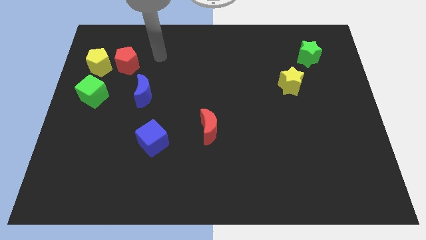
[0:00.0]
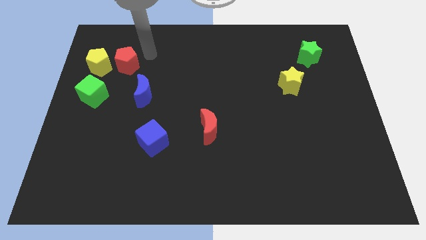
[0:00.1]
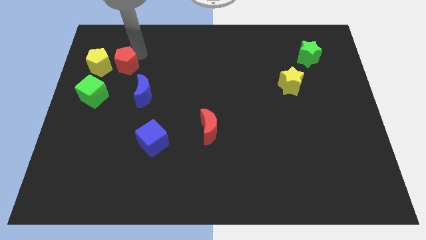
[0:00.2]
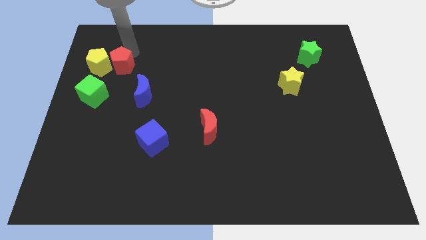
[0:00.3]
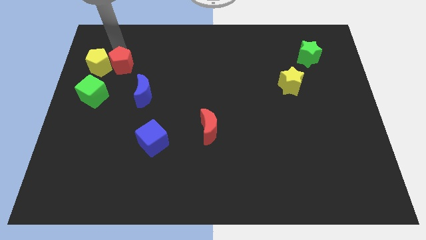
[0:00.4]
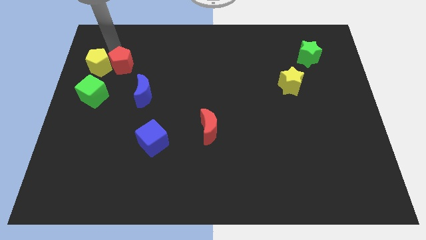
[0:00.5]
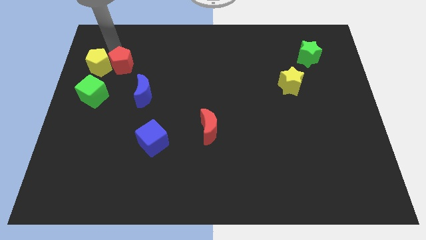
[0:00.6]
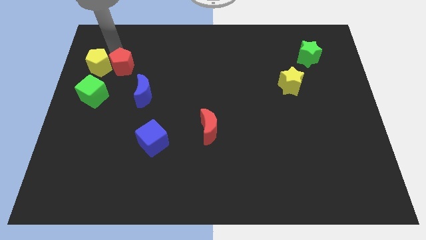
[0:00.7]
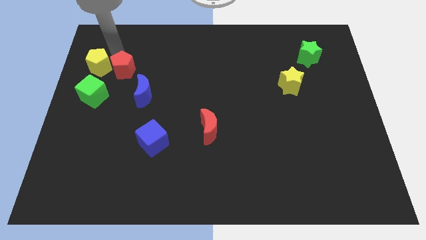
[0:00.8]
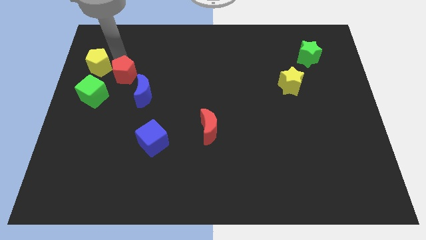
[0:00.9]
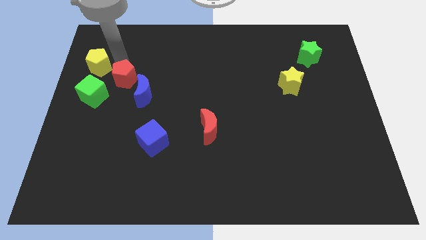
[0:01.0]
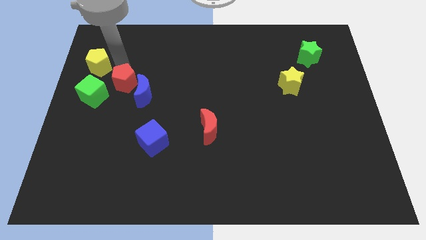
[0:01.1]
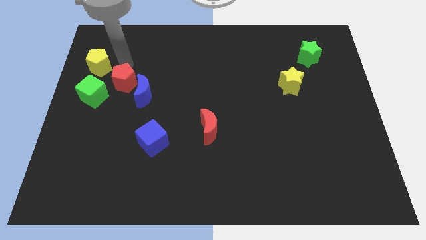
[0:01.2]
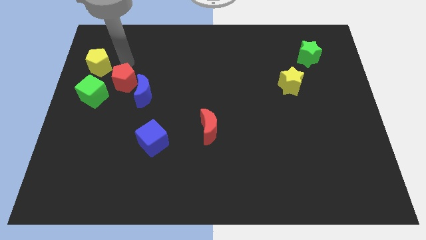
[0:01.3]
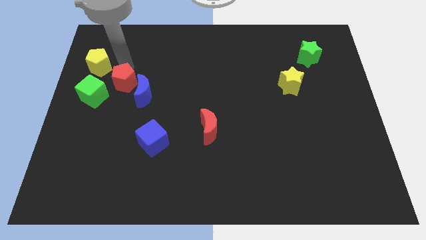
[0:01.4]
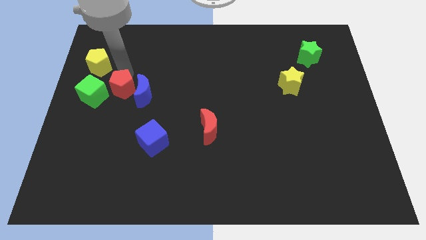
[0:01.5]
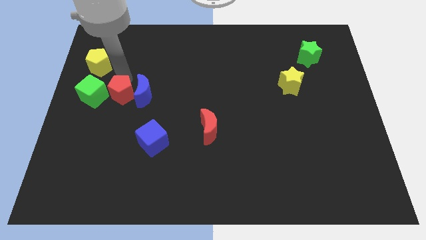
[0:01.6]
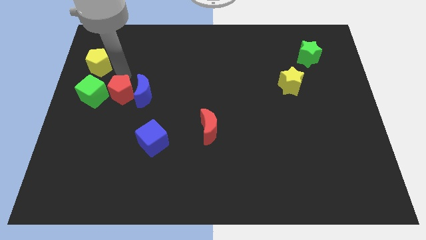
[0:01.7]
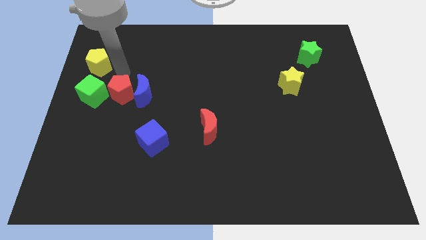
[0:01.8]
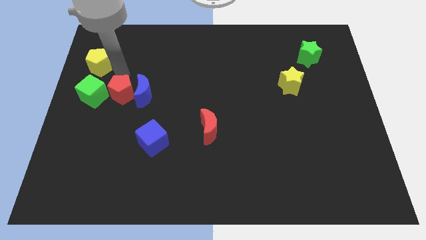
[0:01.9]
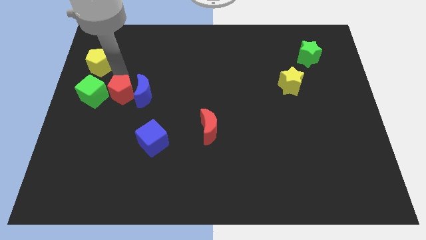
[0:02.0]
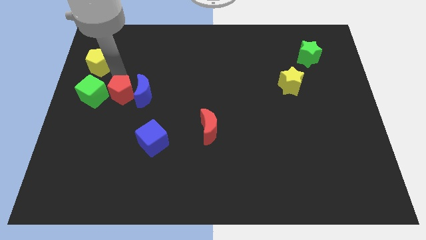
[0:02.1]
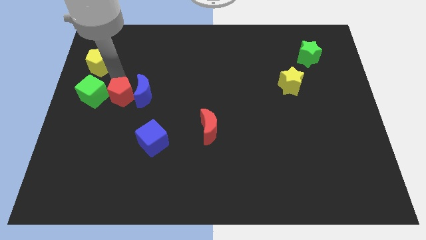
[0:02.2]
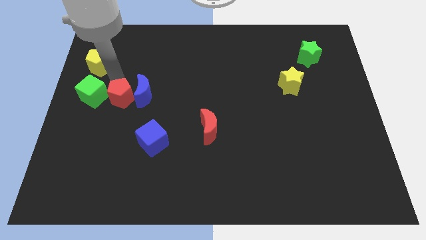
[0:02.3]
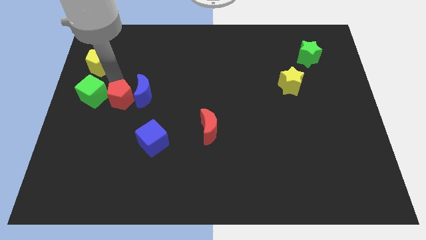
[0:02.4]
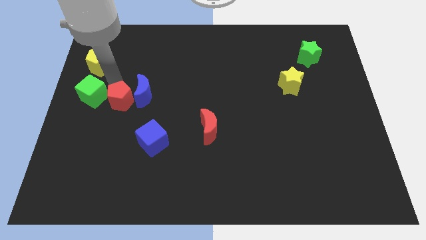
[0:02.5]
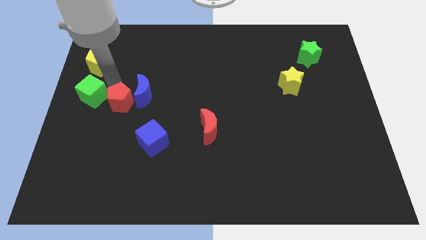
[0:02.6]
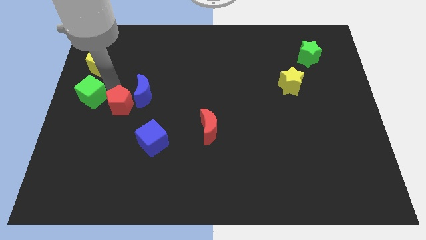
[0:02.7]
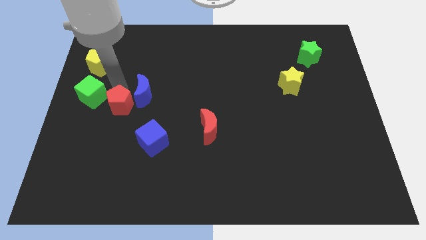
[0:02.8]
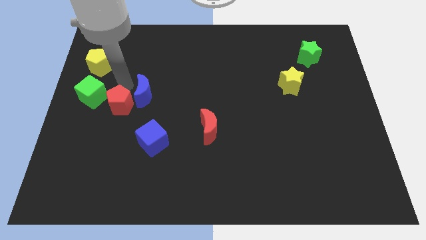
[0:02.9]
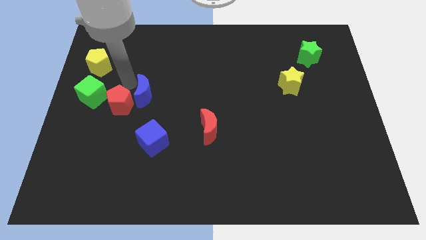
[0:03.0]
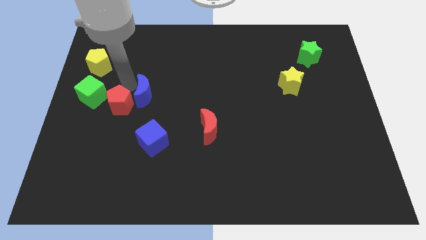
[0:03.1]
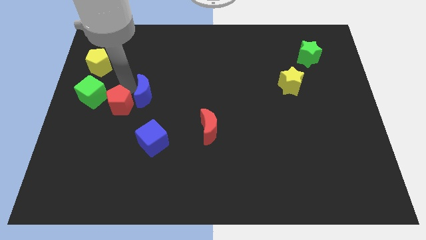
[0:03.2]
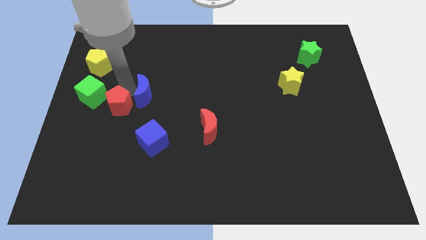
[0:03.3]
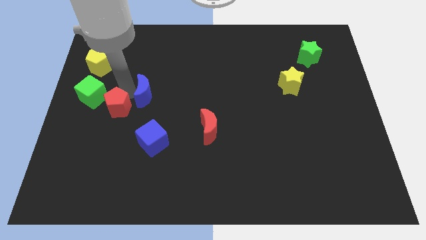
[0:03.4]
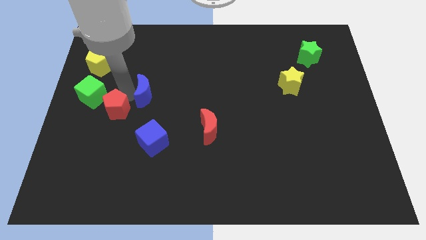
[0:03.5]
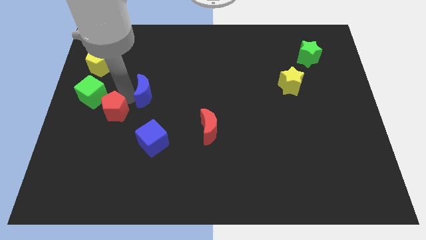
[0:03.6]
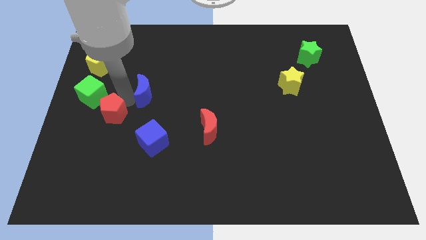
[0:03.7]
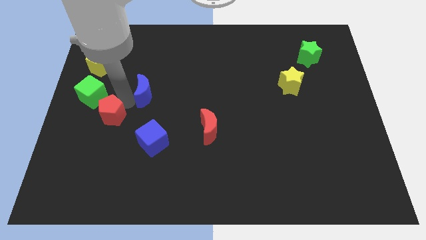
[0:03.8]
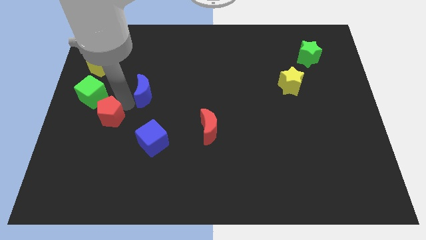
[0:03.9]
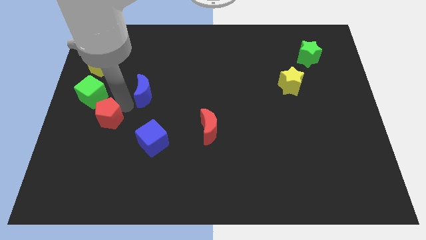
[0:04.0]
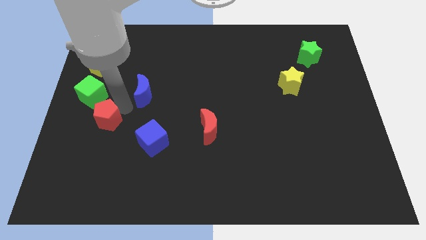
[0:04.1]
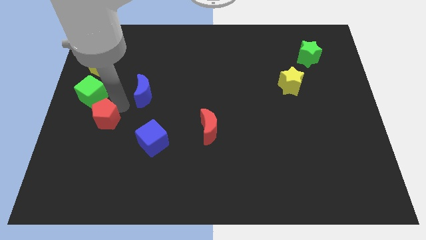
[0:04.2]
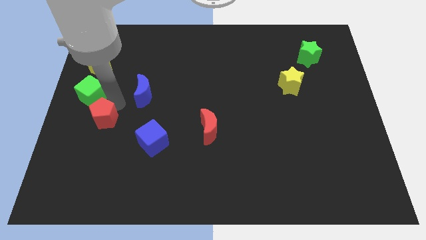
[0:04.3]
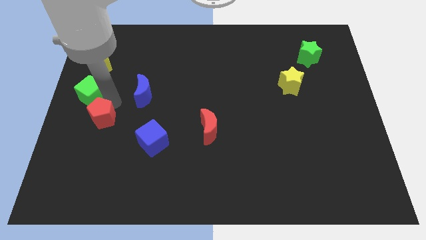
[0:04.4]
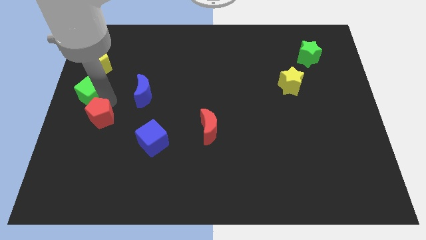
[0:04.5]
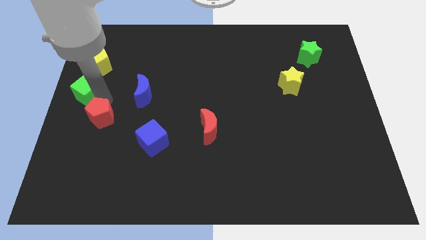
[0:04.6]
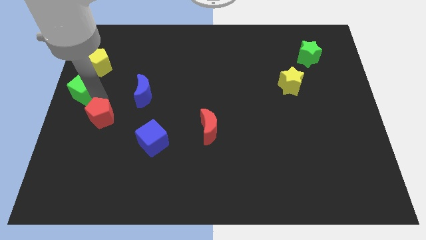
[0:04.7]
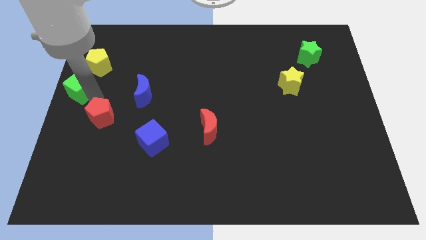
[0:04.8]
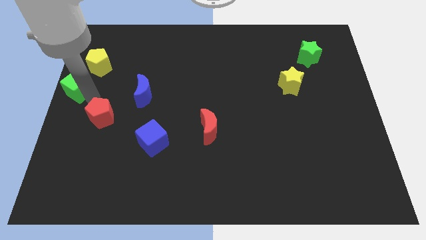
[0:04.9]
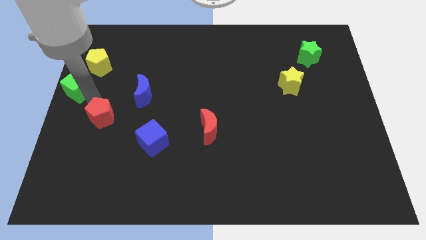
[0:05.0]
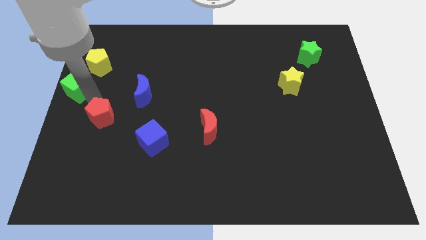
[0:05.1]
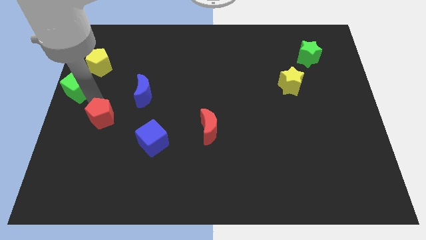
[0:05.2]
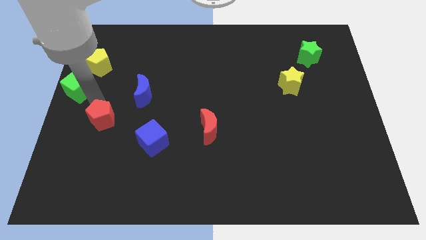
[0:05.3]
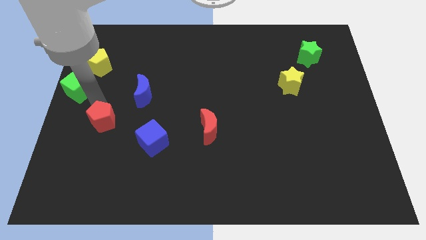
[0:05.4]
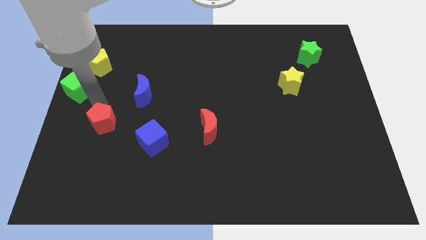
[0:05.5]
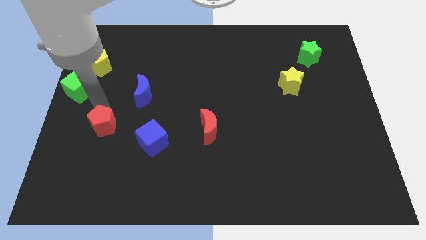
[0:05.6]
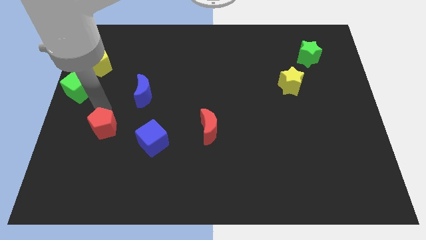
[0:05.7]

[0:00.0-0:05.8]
push the red pentagon down

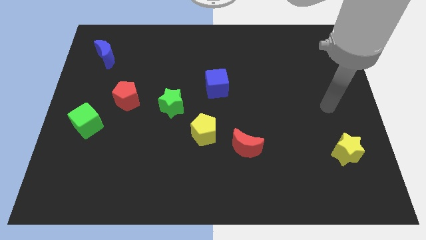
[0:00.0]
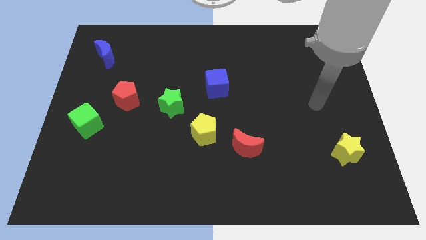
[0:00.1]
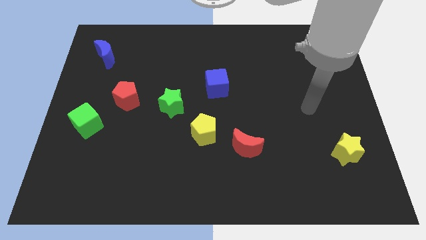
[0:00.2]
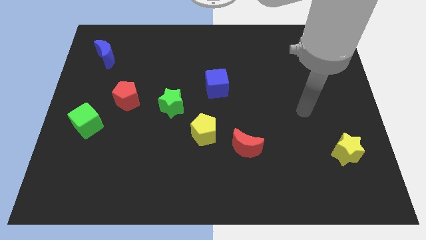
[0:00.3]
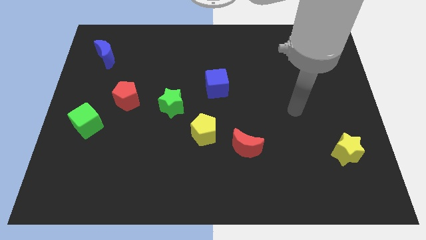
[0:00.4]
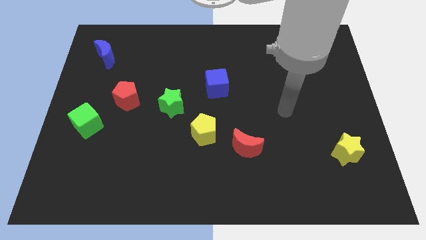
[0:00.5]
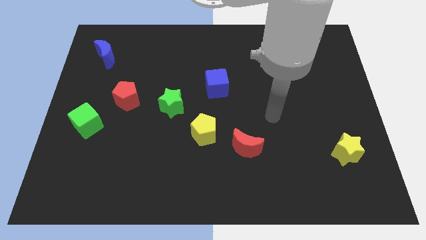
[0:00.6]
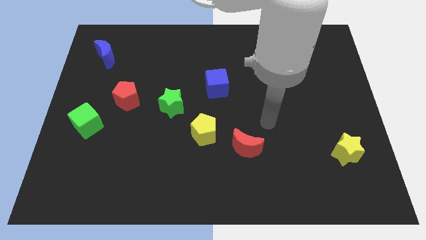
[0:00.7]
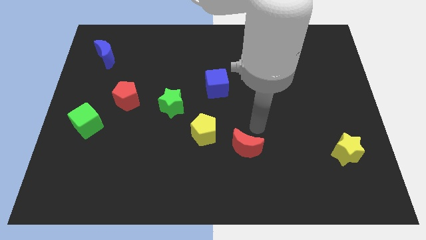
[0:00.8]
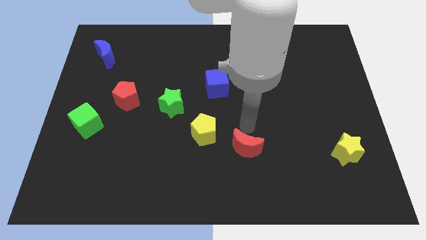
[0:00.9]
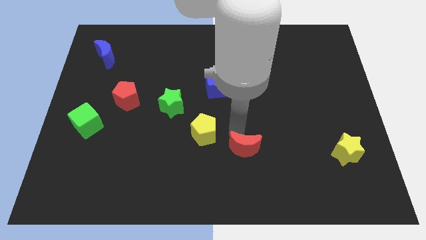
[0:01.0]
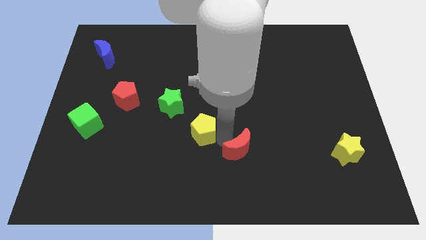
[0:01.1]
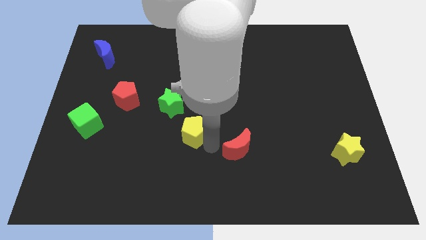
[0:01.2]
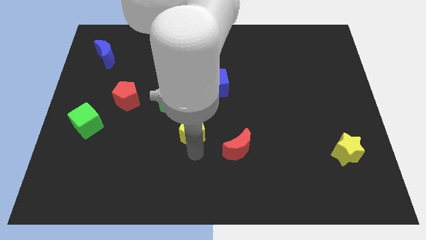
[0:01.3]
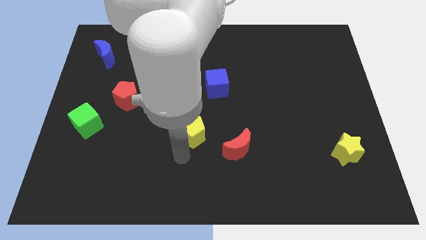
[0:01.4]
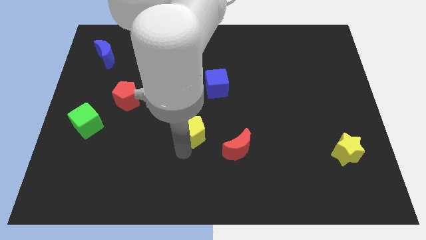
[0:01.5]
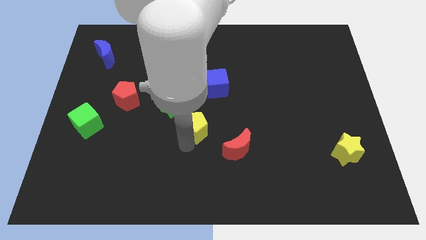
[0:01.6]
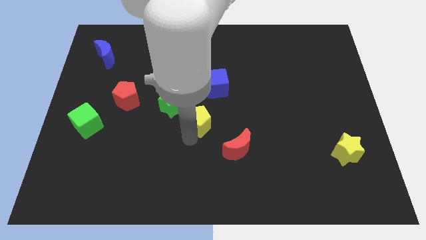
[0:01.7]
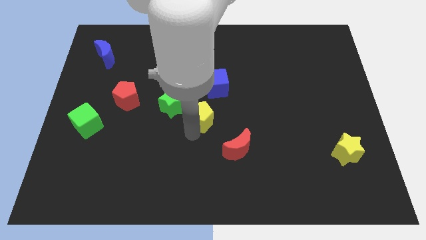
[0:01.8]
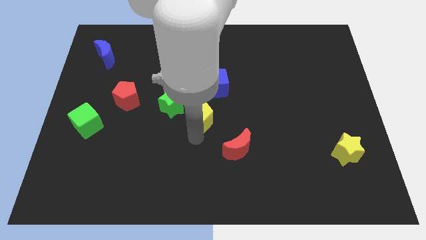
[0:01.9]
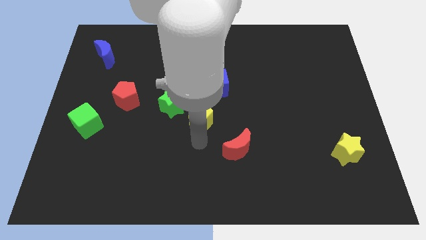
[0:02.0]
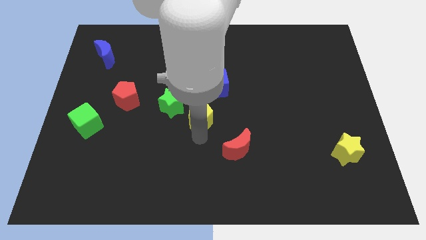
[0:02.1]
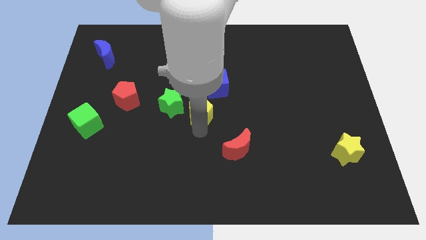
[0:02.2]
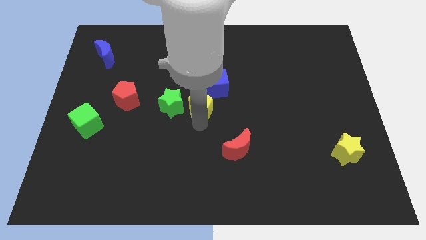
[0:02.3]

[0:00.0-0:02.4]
slide the yellow pentagon upwards slightly
